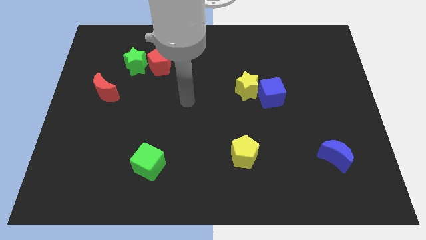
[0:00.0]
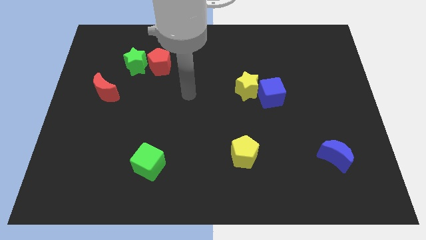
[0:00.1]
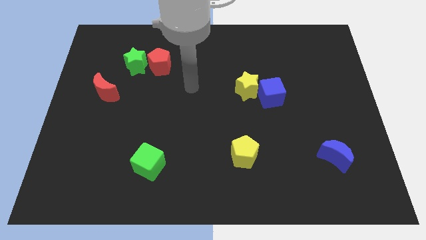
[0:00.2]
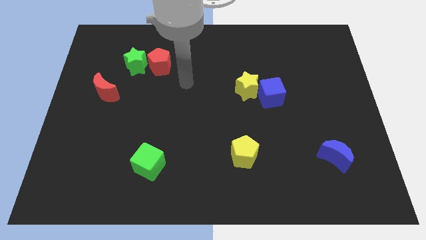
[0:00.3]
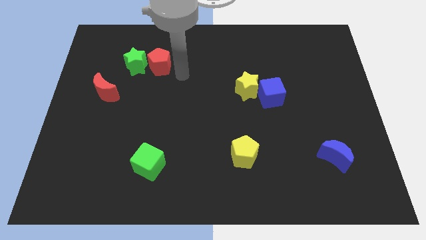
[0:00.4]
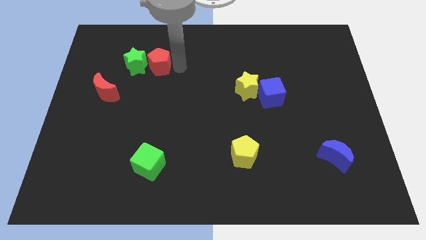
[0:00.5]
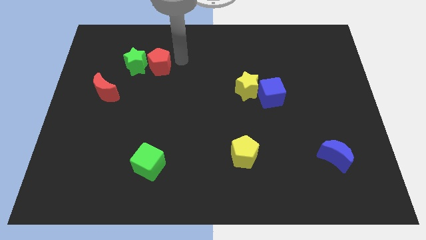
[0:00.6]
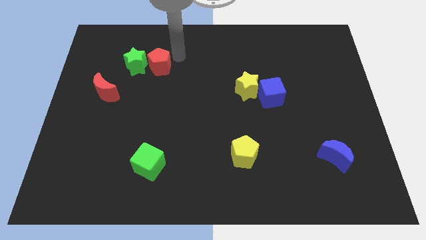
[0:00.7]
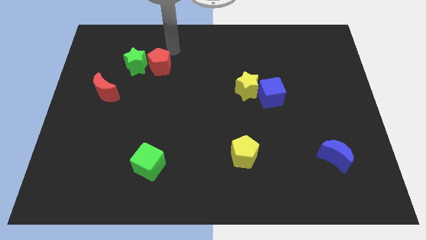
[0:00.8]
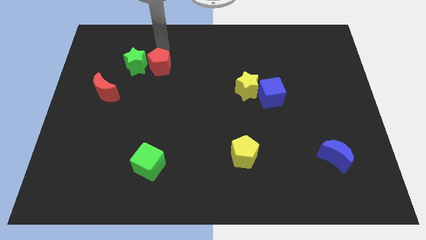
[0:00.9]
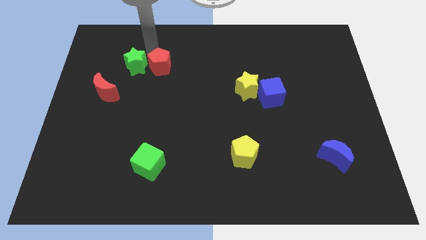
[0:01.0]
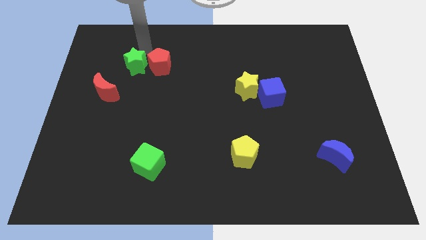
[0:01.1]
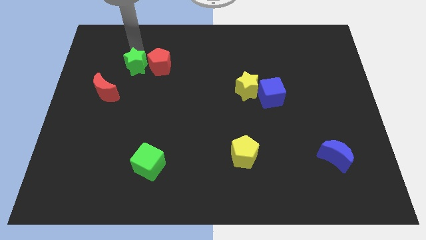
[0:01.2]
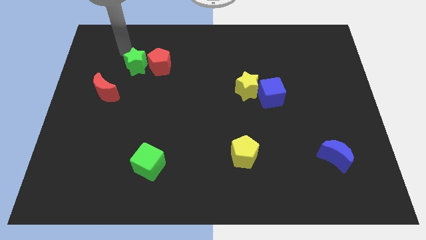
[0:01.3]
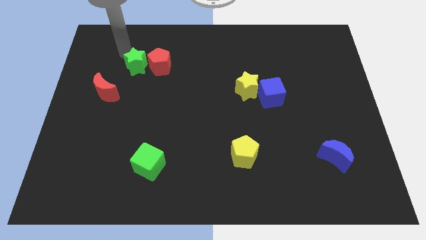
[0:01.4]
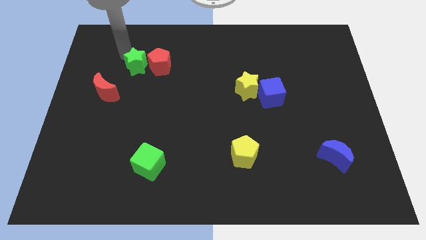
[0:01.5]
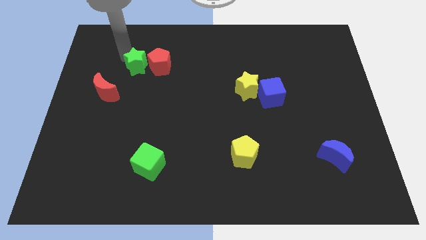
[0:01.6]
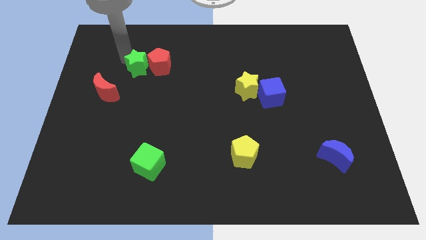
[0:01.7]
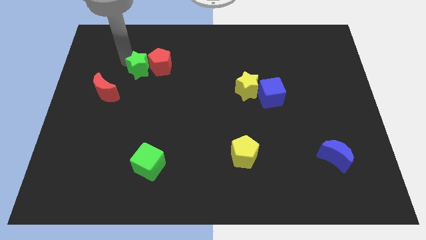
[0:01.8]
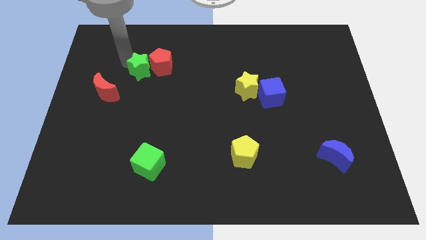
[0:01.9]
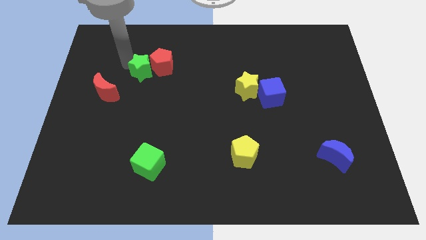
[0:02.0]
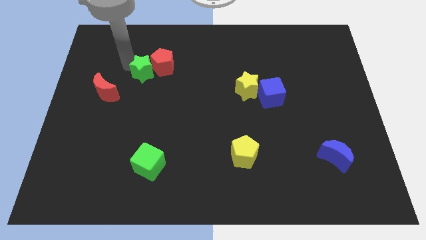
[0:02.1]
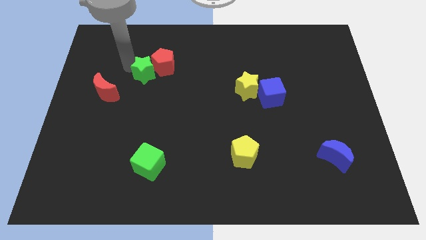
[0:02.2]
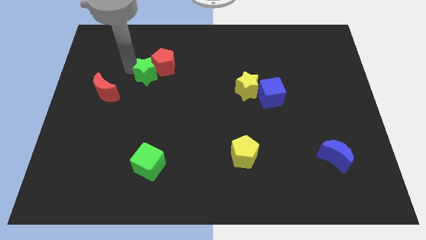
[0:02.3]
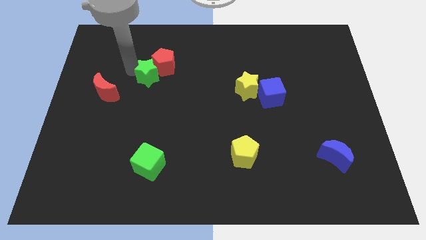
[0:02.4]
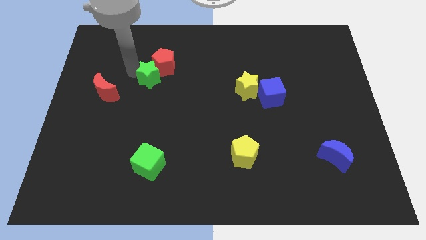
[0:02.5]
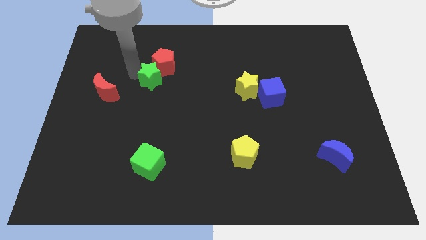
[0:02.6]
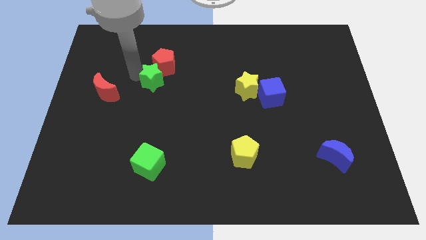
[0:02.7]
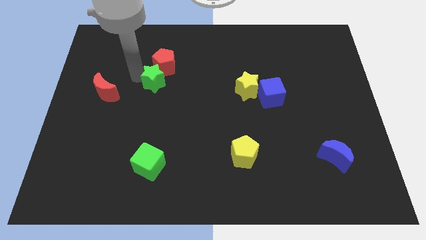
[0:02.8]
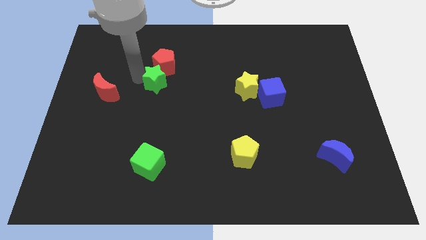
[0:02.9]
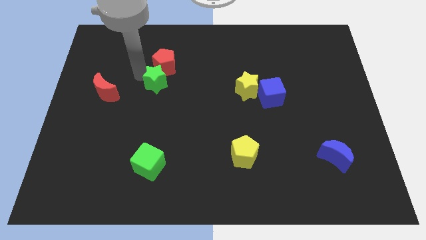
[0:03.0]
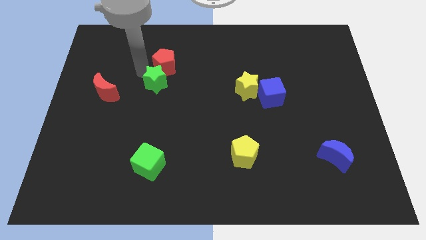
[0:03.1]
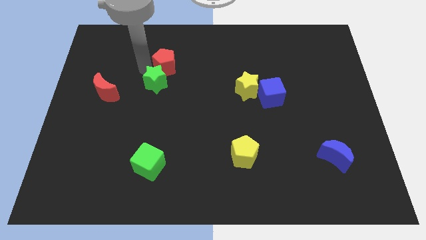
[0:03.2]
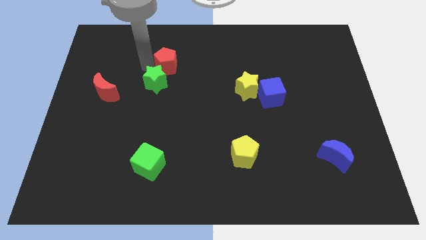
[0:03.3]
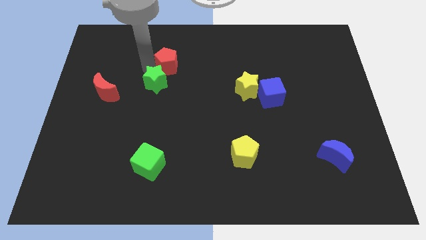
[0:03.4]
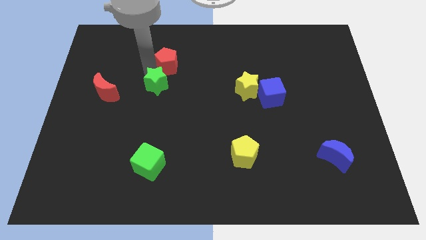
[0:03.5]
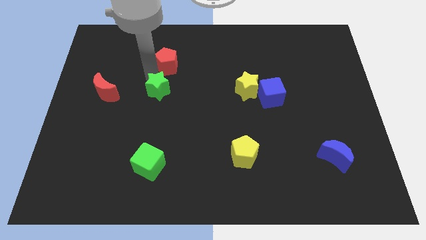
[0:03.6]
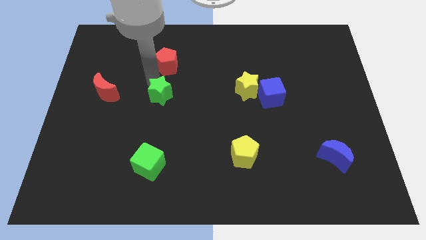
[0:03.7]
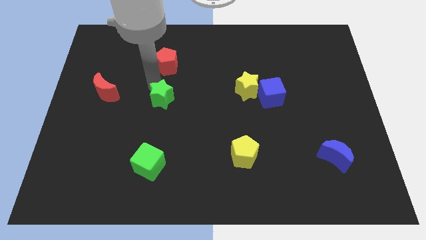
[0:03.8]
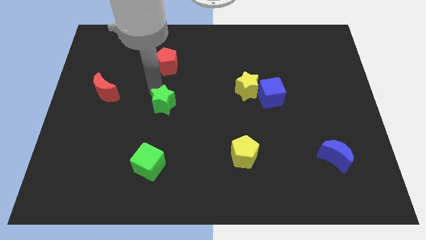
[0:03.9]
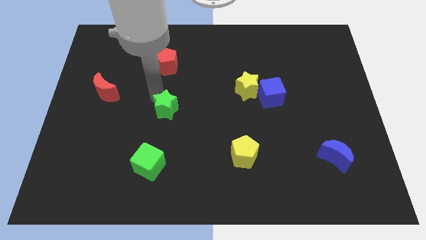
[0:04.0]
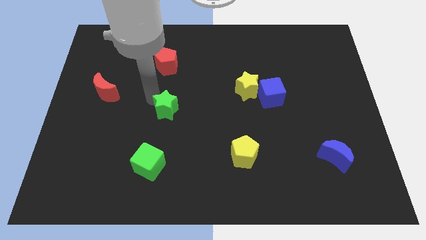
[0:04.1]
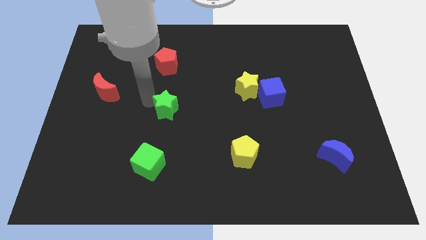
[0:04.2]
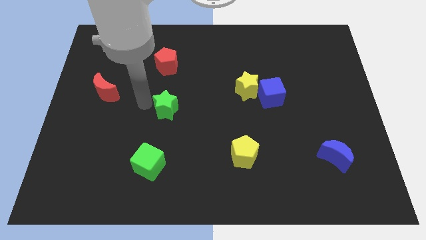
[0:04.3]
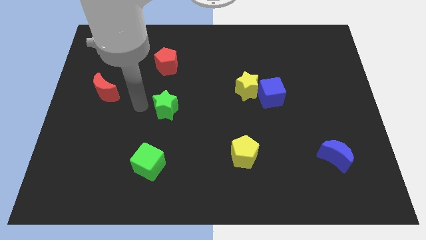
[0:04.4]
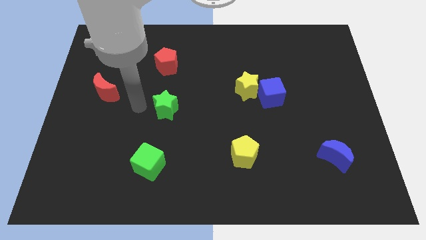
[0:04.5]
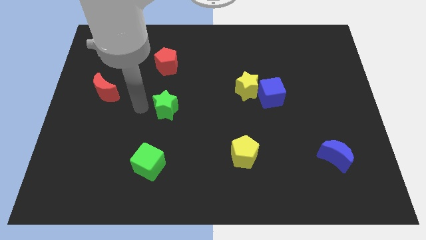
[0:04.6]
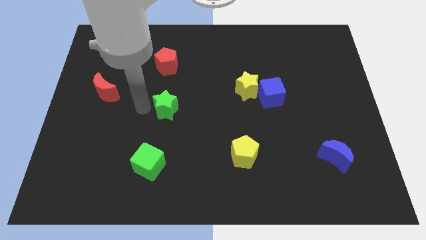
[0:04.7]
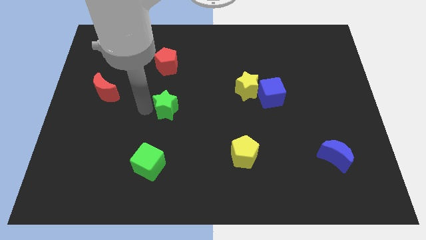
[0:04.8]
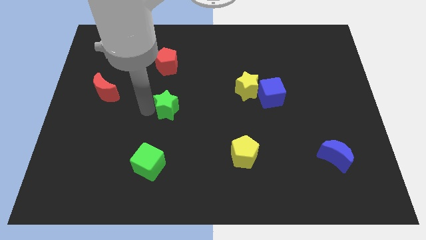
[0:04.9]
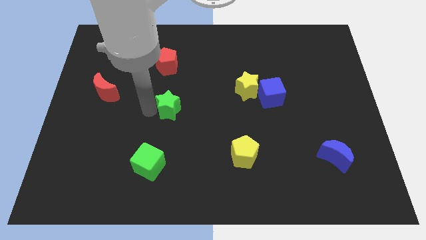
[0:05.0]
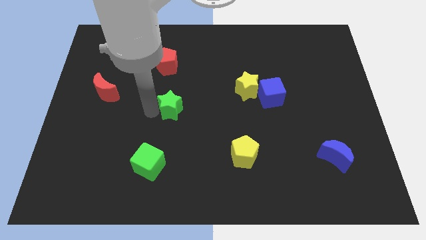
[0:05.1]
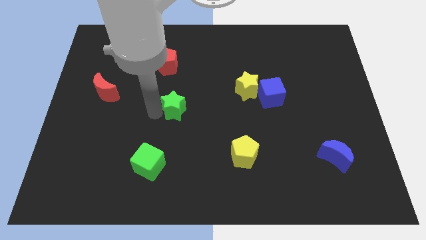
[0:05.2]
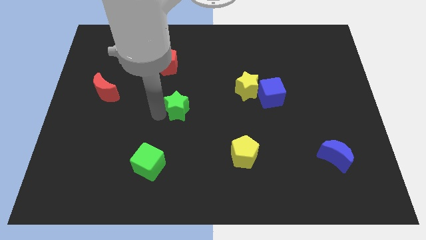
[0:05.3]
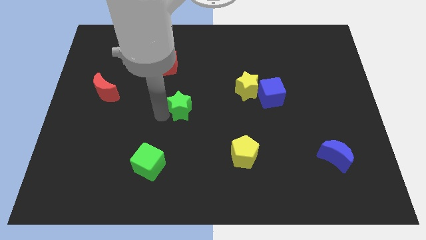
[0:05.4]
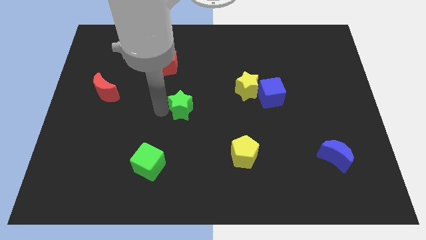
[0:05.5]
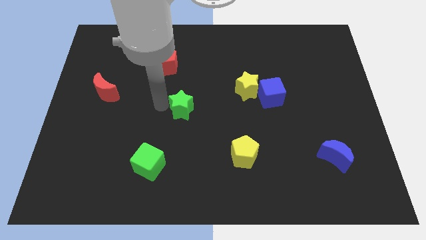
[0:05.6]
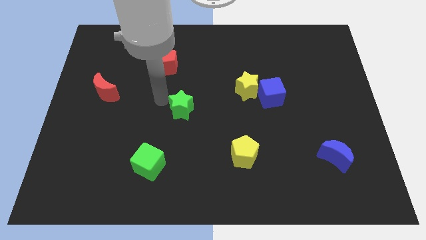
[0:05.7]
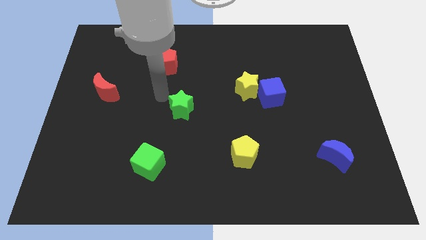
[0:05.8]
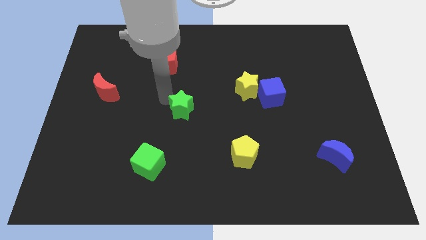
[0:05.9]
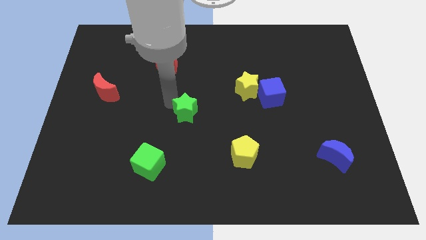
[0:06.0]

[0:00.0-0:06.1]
move the green star downwards and to the right diagonally

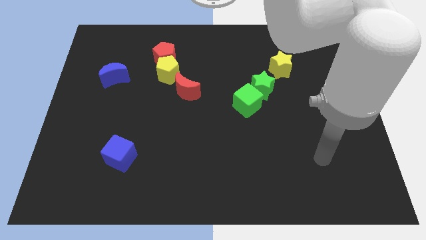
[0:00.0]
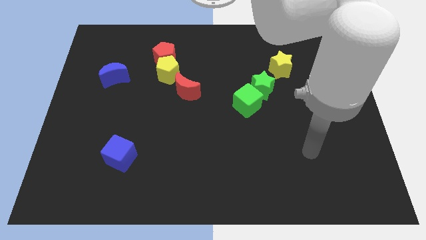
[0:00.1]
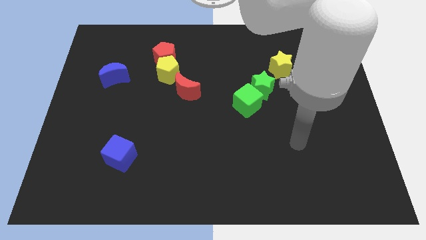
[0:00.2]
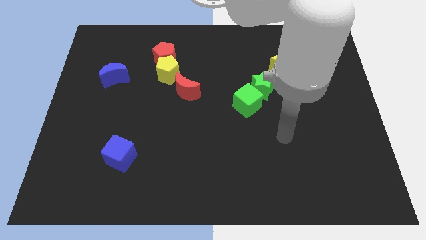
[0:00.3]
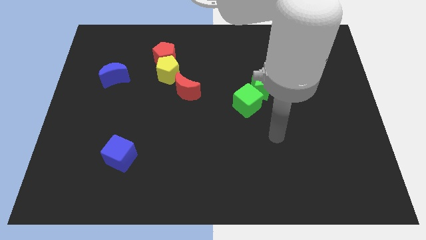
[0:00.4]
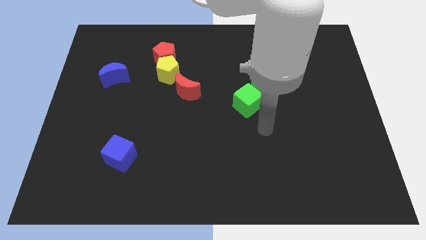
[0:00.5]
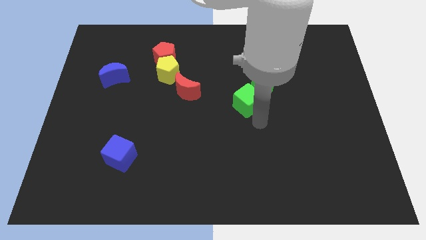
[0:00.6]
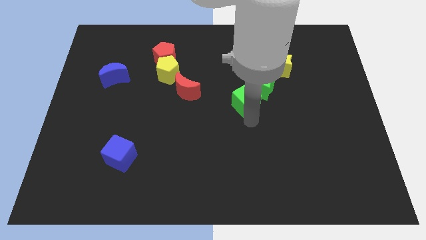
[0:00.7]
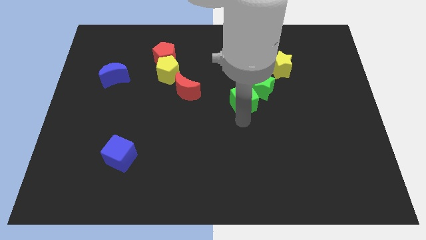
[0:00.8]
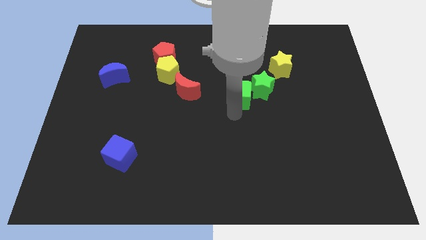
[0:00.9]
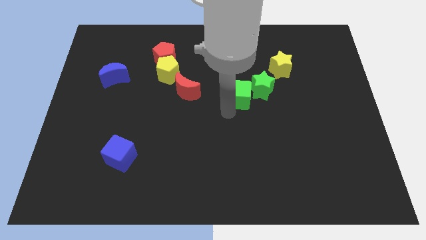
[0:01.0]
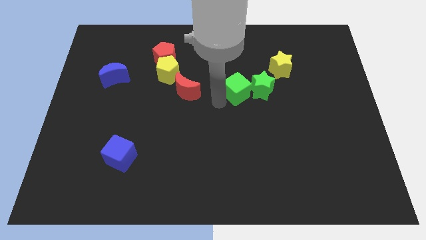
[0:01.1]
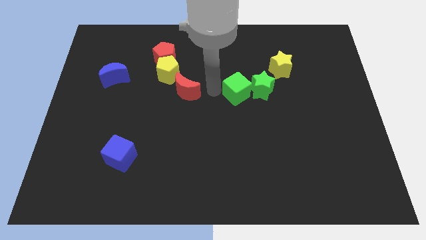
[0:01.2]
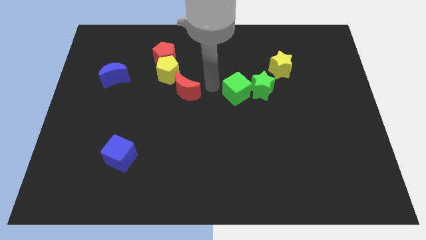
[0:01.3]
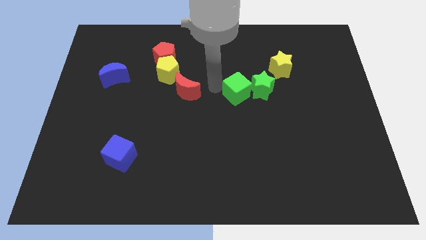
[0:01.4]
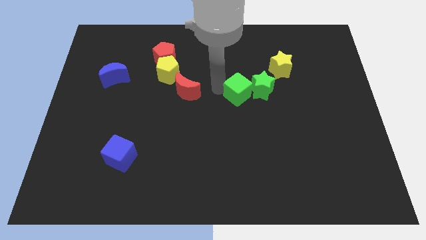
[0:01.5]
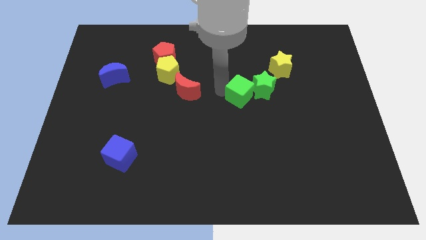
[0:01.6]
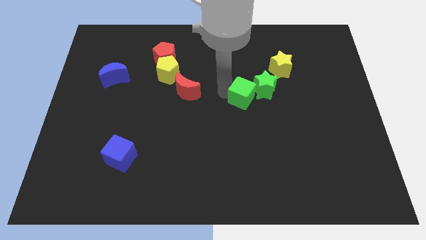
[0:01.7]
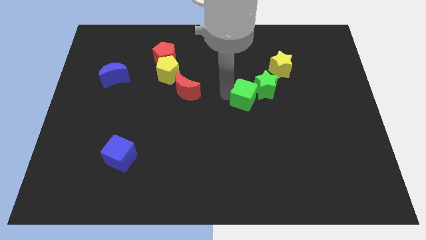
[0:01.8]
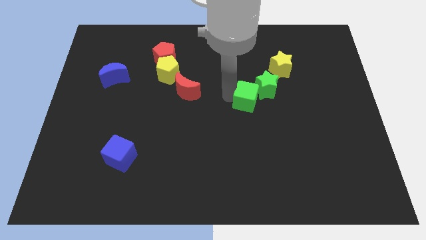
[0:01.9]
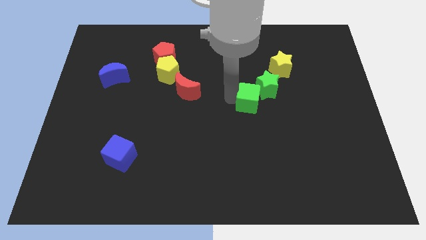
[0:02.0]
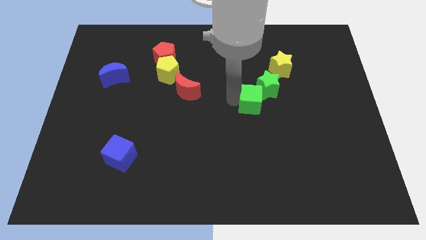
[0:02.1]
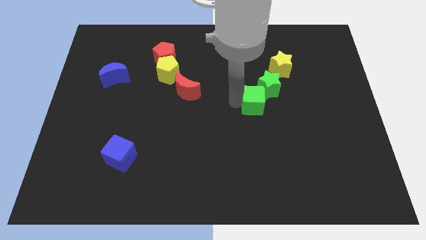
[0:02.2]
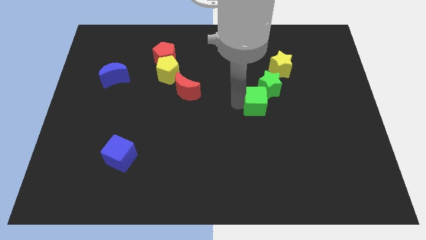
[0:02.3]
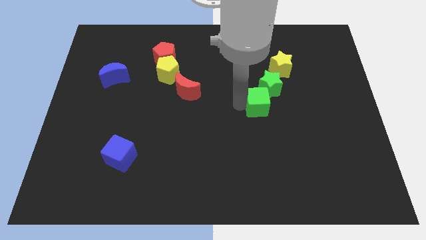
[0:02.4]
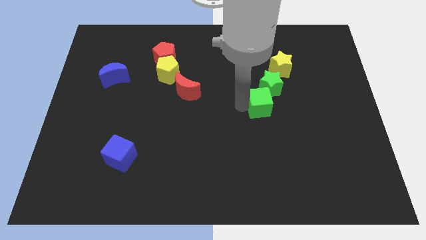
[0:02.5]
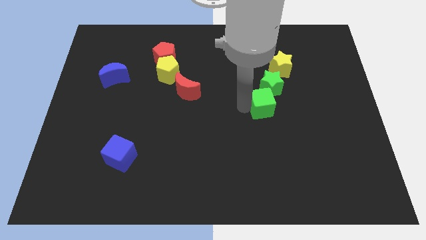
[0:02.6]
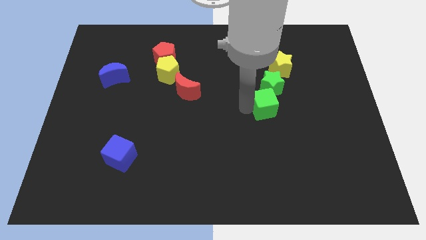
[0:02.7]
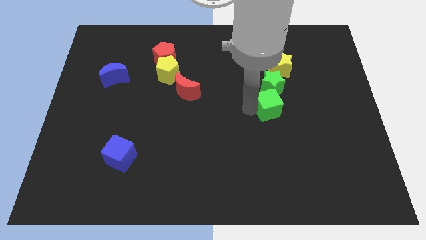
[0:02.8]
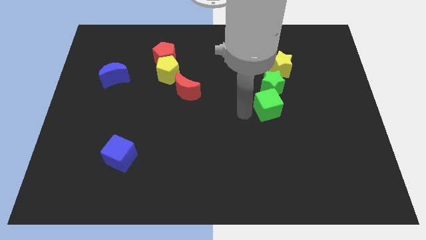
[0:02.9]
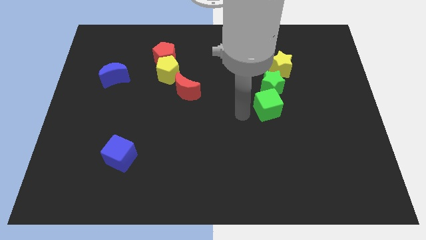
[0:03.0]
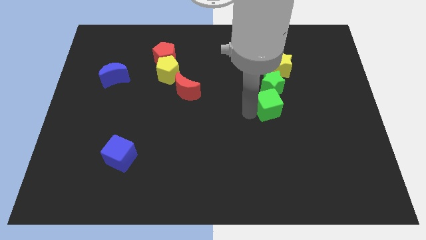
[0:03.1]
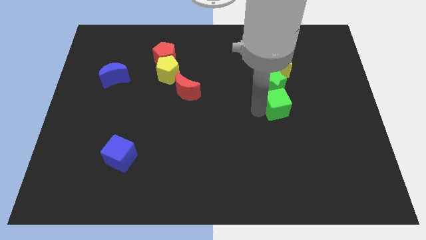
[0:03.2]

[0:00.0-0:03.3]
slightly move the green cube to the right
